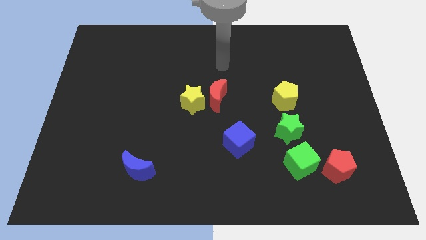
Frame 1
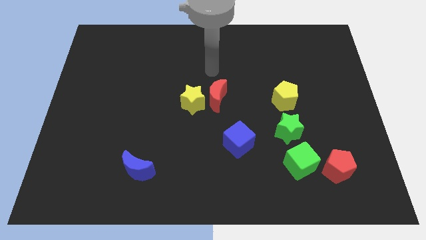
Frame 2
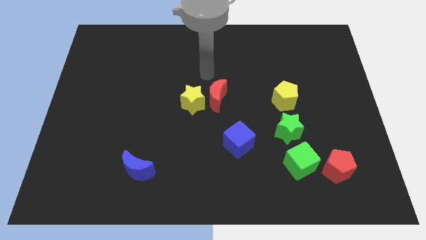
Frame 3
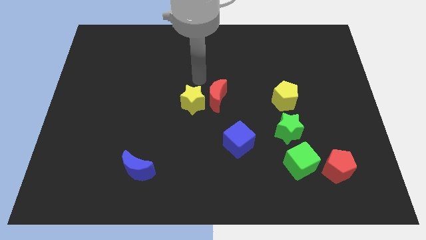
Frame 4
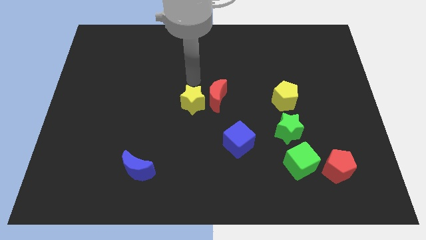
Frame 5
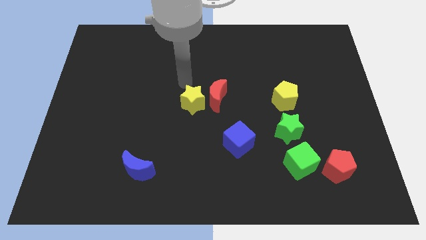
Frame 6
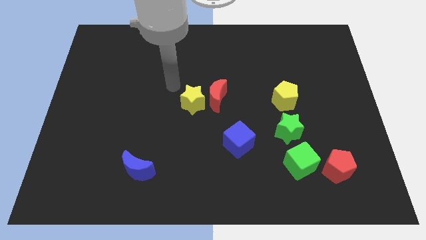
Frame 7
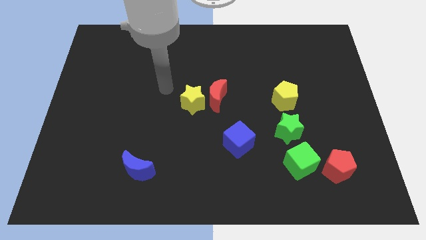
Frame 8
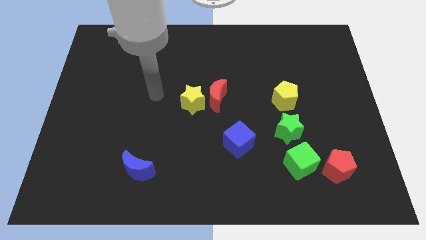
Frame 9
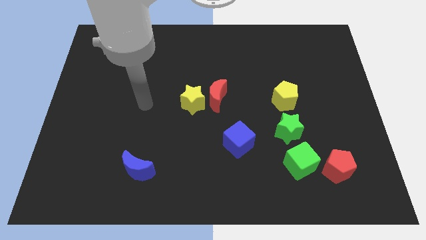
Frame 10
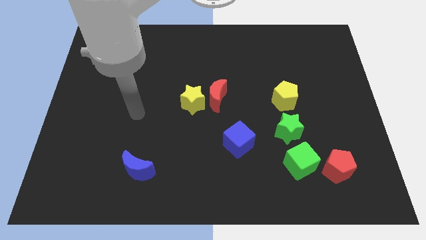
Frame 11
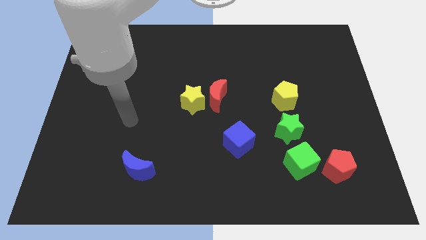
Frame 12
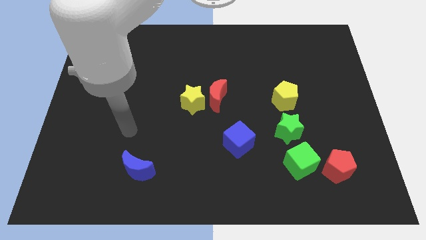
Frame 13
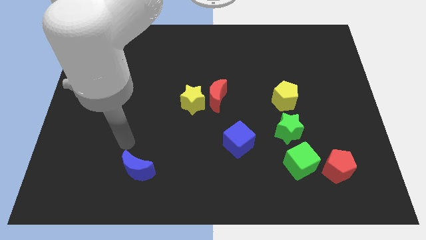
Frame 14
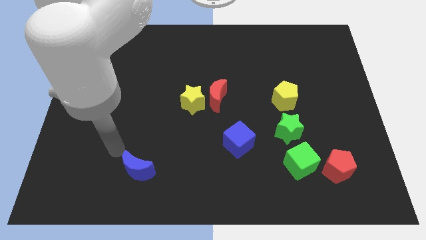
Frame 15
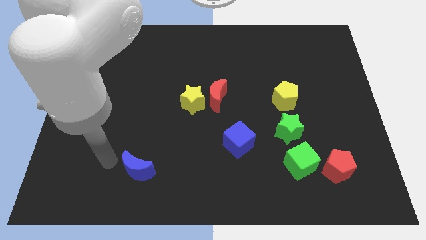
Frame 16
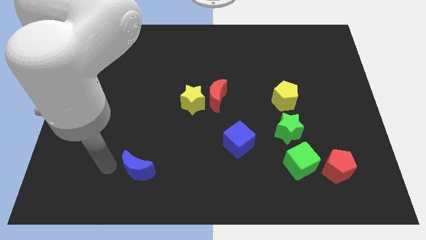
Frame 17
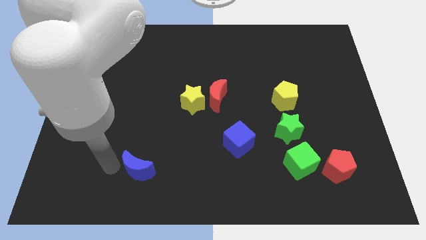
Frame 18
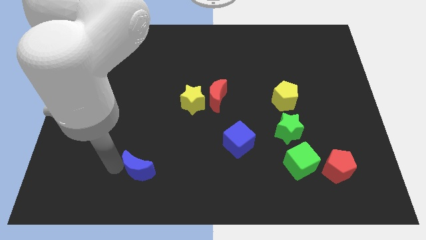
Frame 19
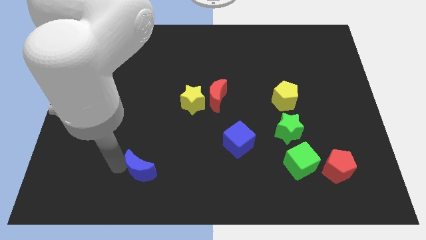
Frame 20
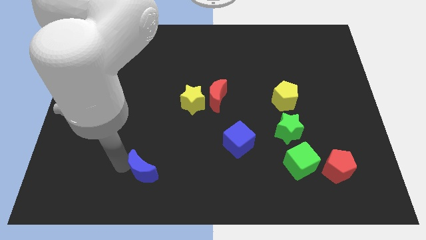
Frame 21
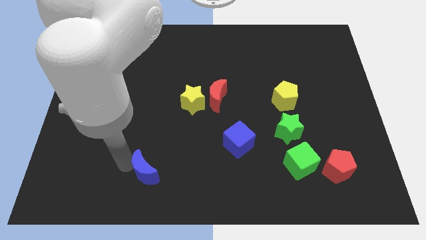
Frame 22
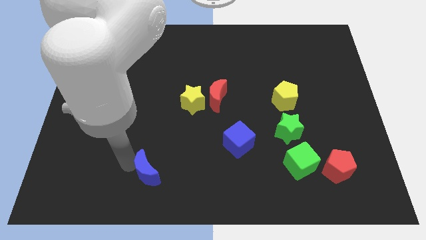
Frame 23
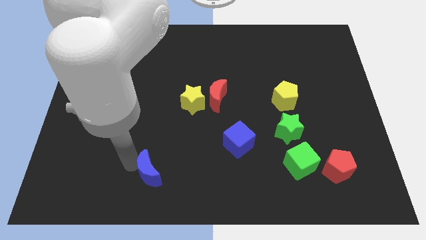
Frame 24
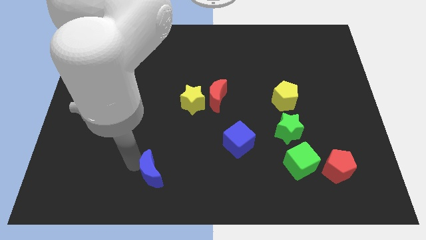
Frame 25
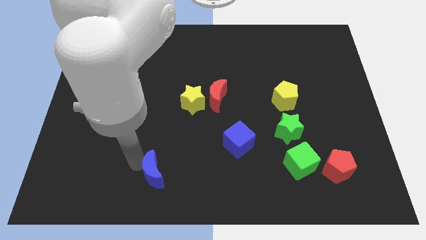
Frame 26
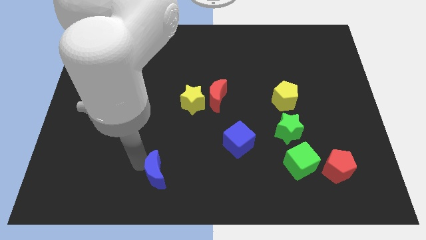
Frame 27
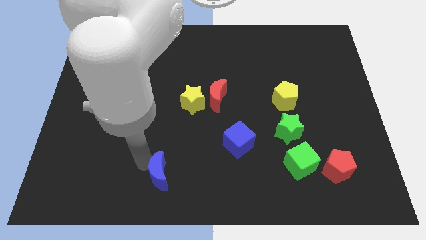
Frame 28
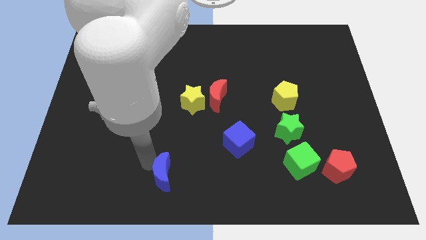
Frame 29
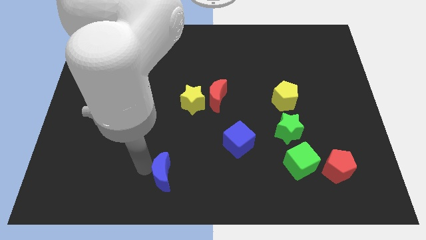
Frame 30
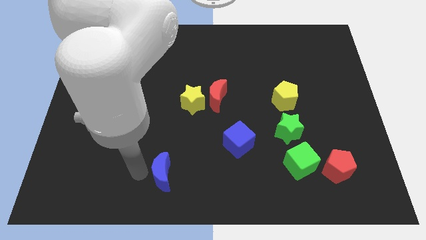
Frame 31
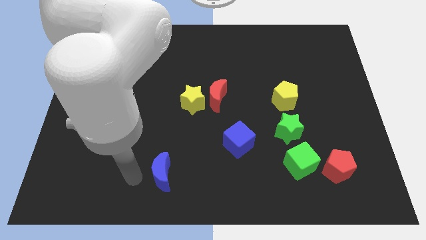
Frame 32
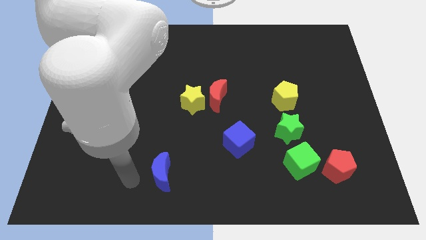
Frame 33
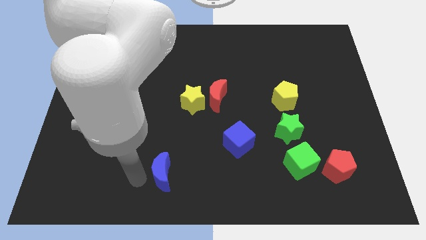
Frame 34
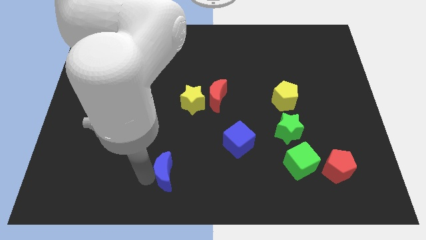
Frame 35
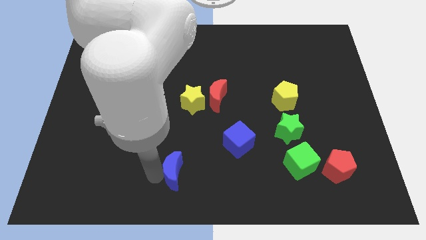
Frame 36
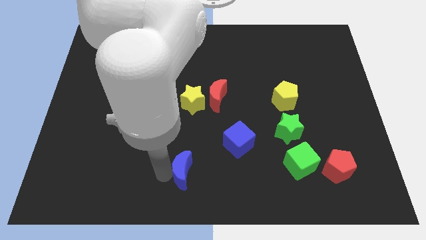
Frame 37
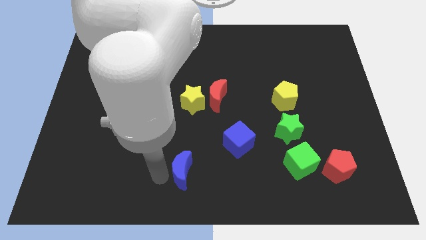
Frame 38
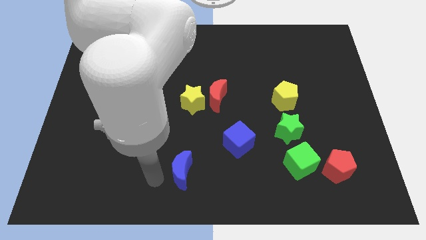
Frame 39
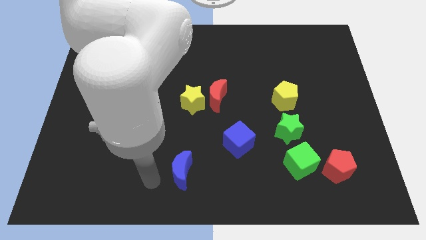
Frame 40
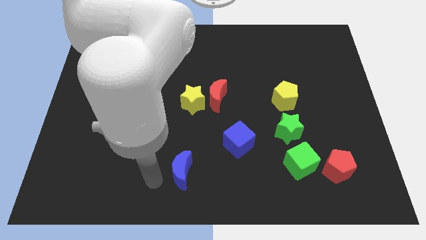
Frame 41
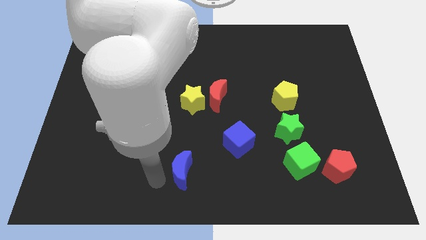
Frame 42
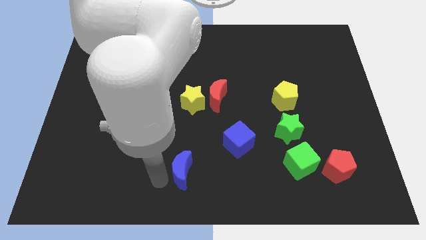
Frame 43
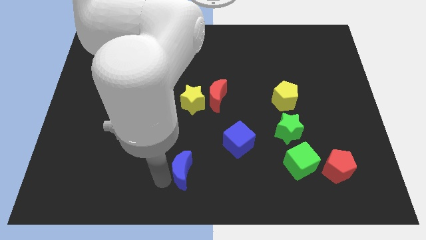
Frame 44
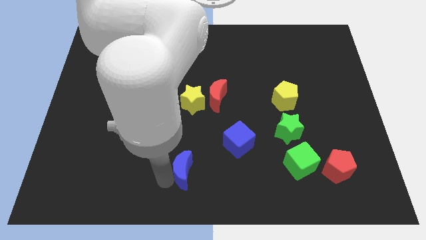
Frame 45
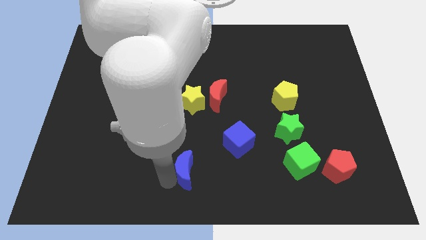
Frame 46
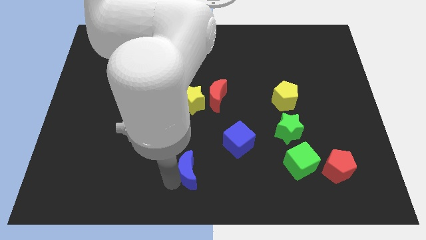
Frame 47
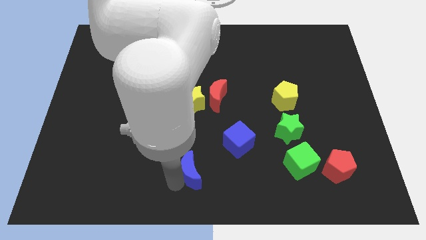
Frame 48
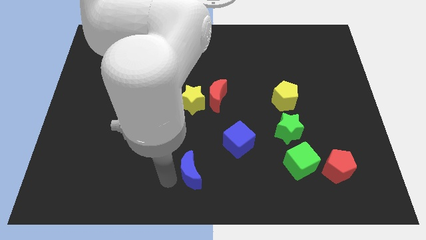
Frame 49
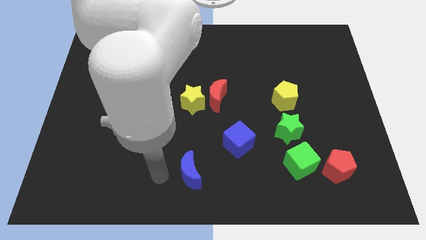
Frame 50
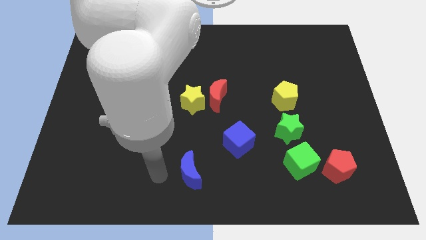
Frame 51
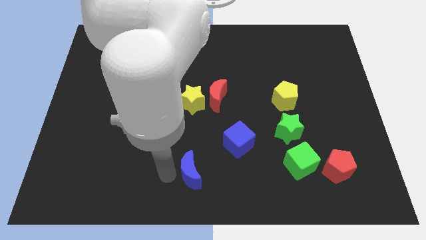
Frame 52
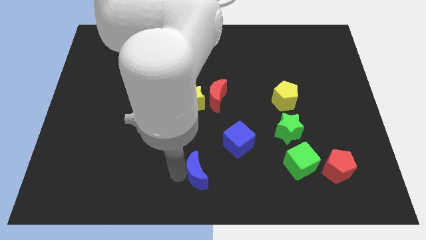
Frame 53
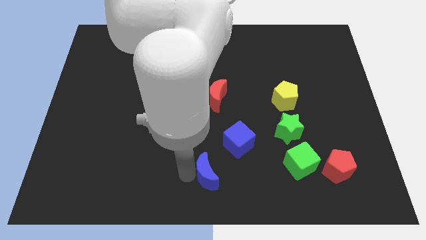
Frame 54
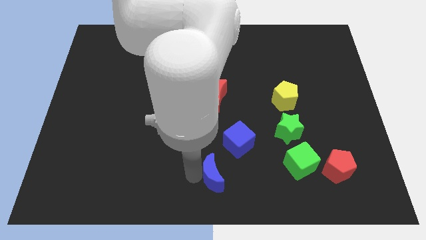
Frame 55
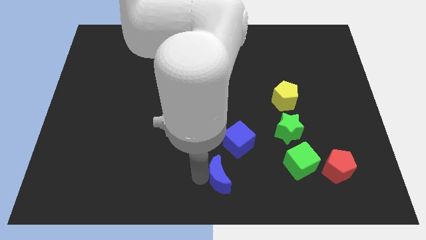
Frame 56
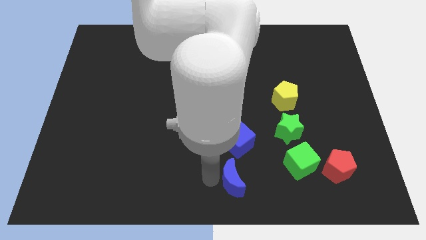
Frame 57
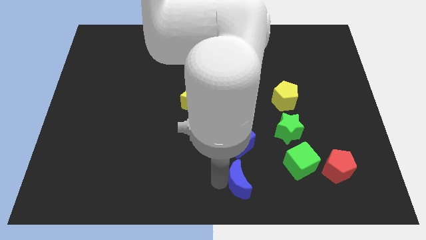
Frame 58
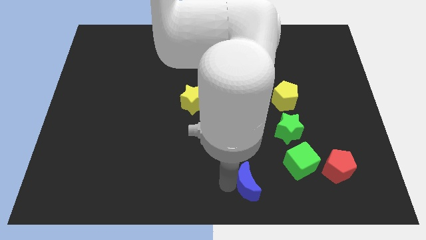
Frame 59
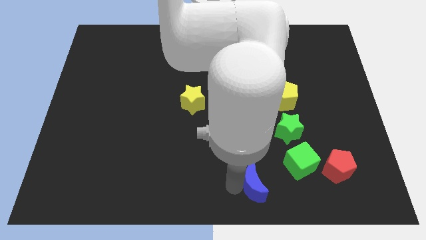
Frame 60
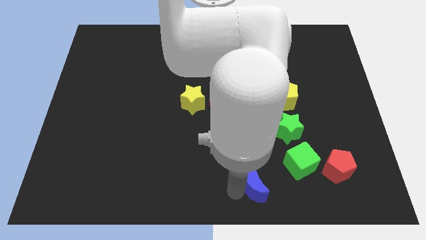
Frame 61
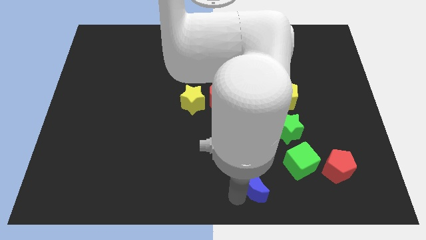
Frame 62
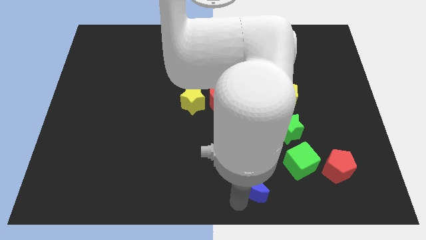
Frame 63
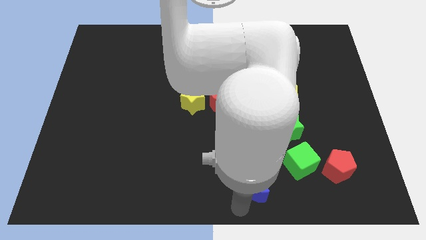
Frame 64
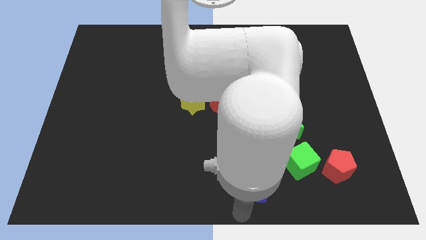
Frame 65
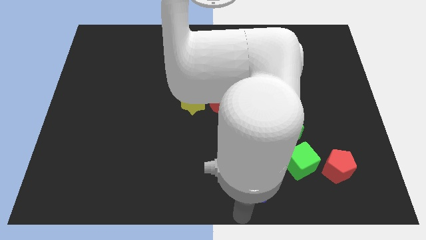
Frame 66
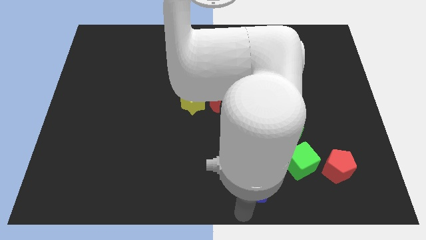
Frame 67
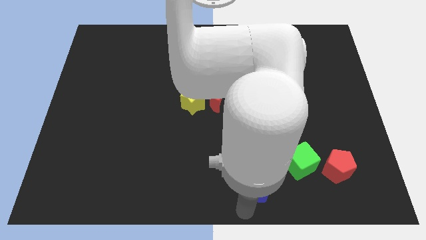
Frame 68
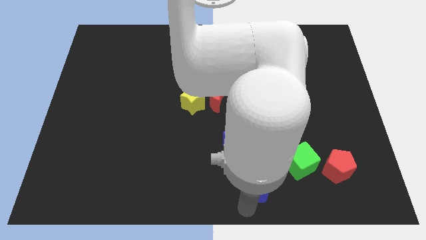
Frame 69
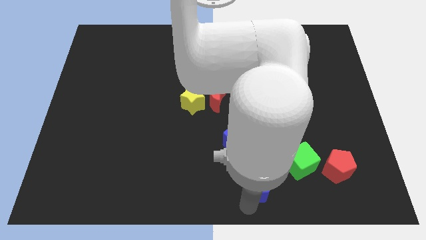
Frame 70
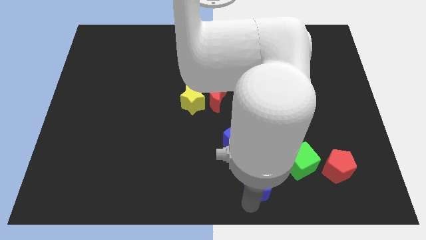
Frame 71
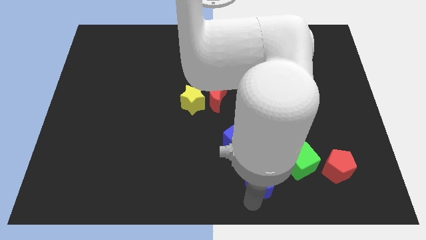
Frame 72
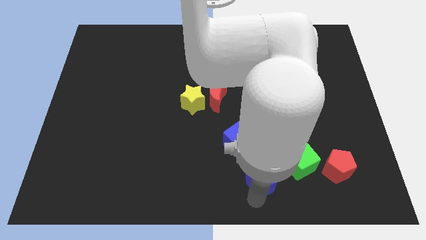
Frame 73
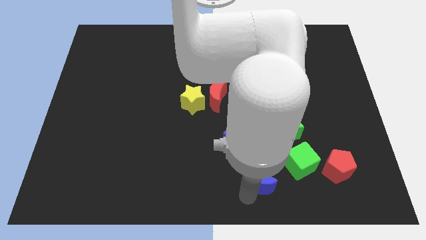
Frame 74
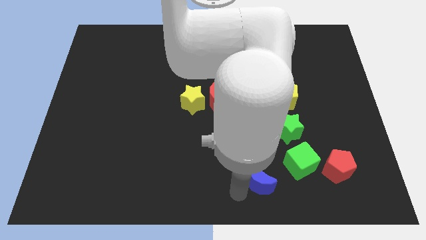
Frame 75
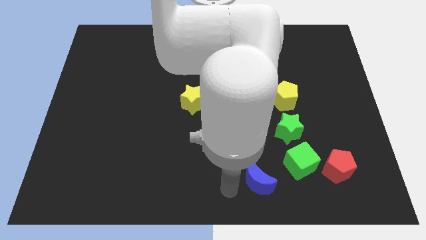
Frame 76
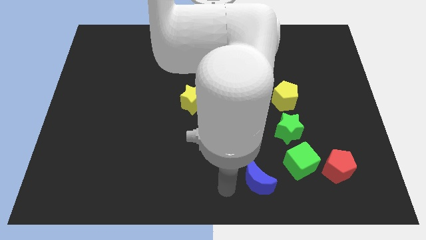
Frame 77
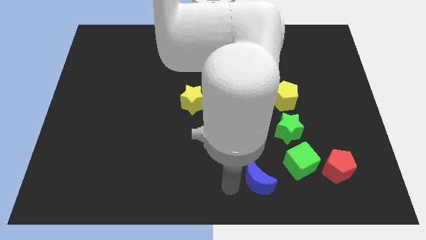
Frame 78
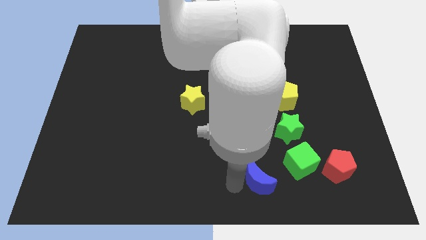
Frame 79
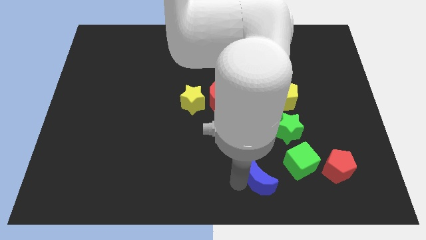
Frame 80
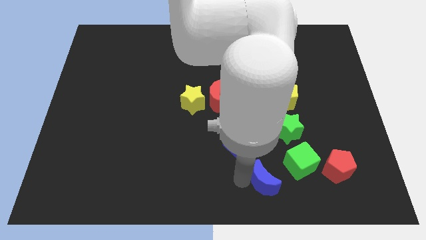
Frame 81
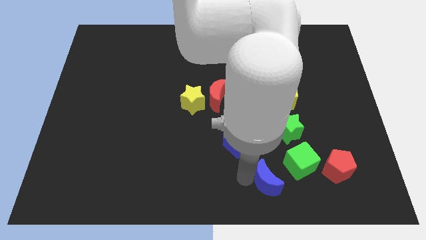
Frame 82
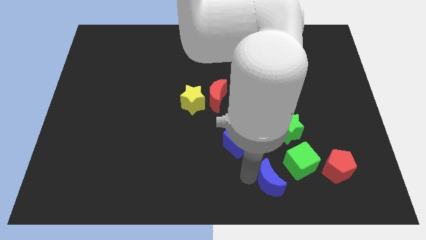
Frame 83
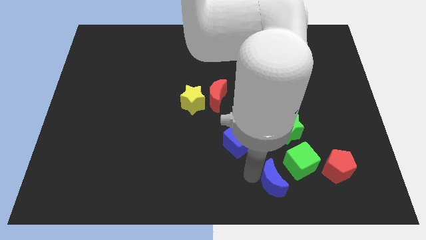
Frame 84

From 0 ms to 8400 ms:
push the blue moon to the bottom of the green star
